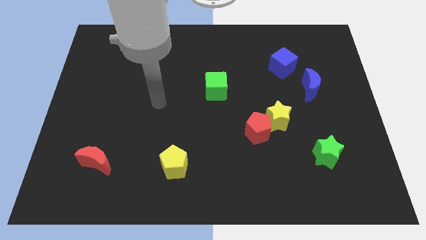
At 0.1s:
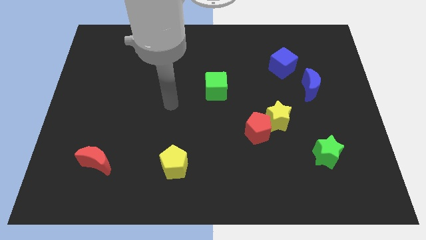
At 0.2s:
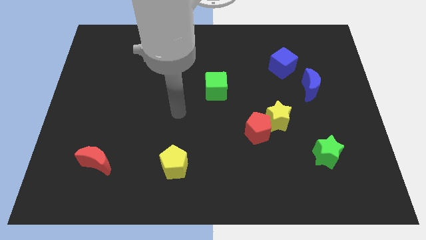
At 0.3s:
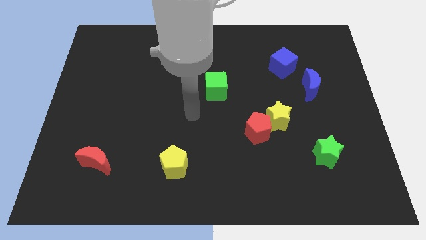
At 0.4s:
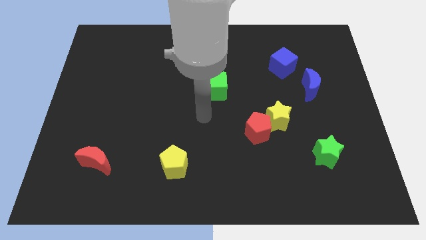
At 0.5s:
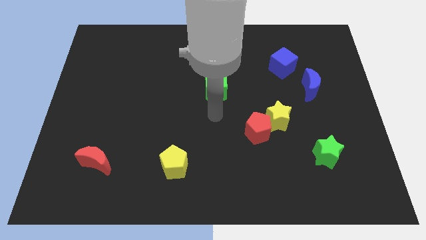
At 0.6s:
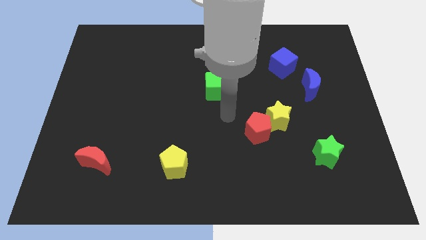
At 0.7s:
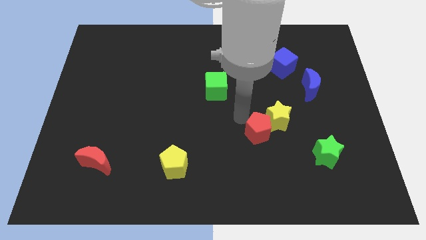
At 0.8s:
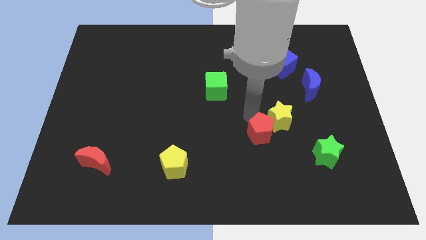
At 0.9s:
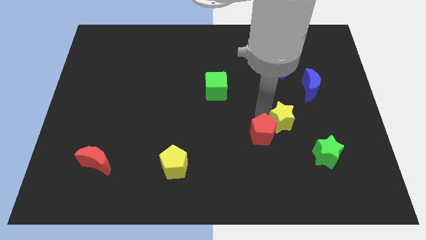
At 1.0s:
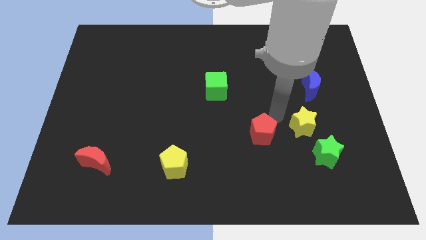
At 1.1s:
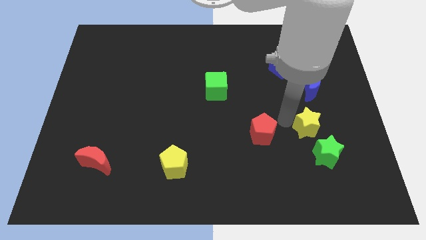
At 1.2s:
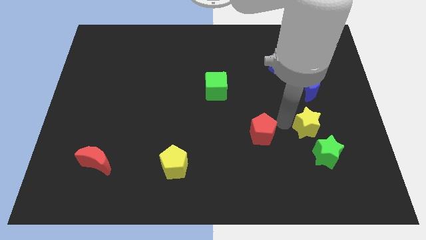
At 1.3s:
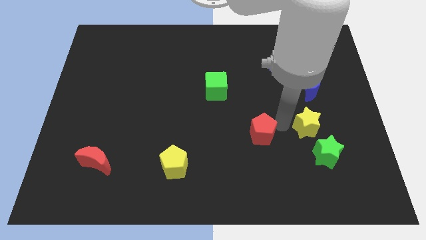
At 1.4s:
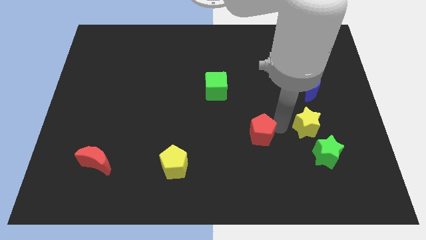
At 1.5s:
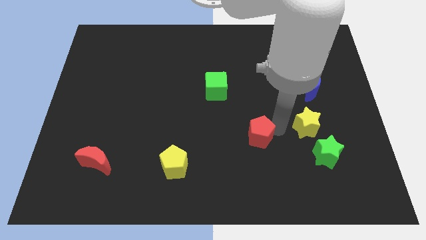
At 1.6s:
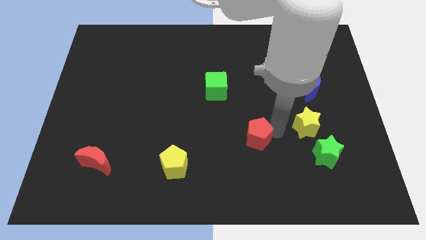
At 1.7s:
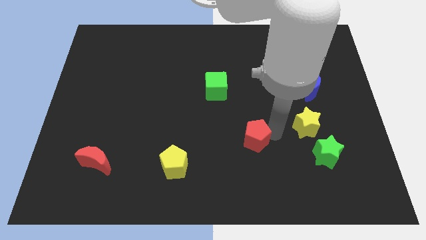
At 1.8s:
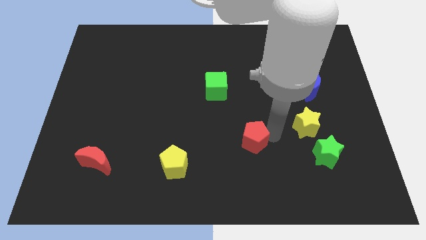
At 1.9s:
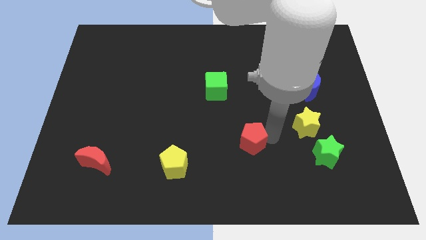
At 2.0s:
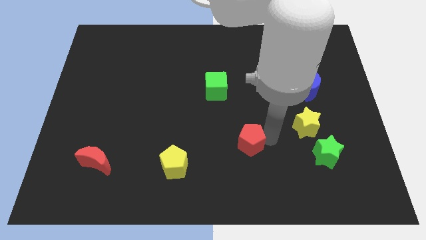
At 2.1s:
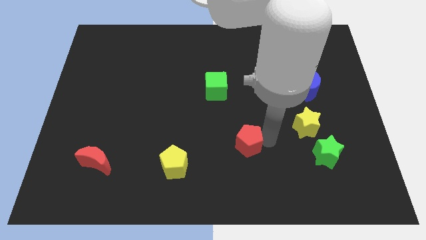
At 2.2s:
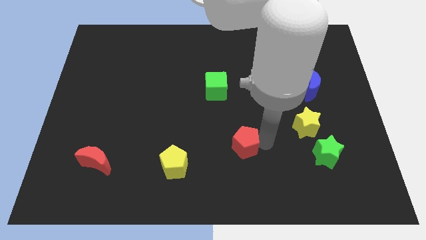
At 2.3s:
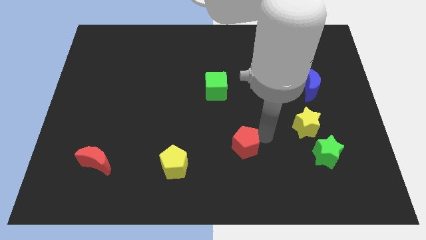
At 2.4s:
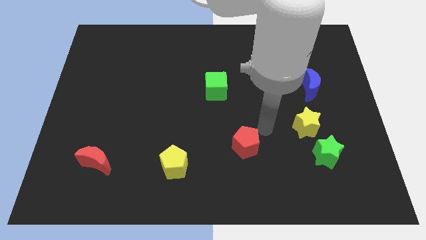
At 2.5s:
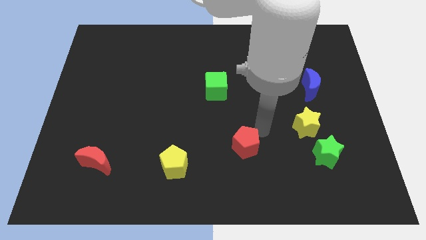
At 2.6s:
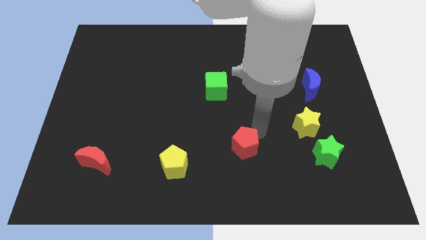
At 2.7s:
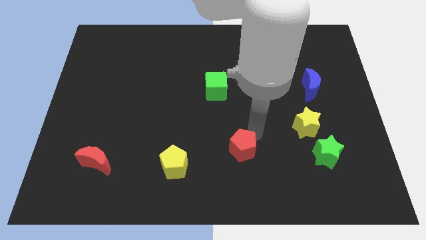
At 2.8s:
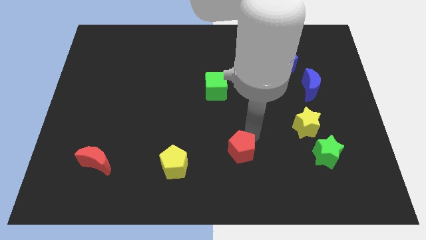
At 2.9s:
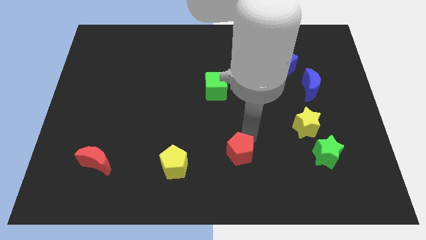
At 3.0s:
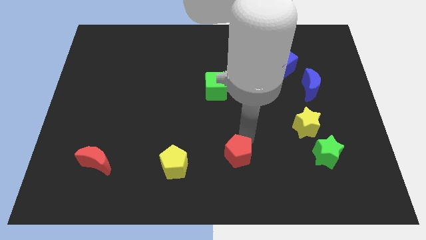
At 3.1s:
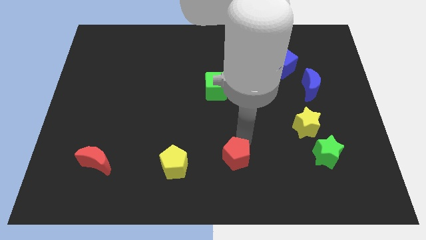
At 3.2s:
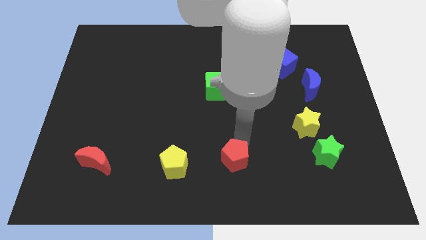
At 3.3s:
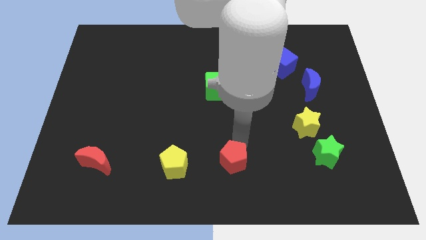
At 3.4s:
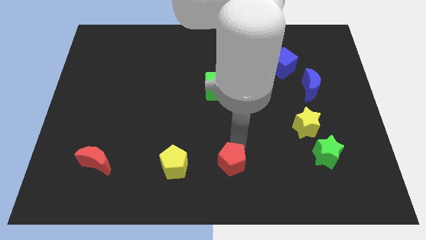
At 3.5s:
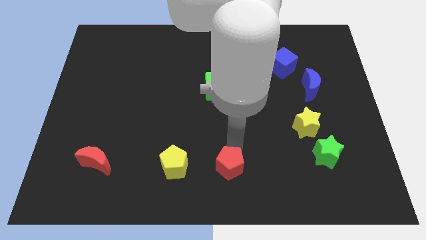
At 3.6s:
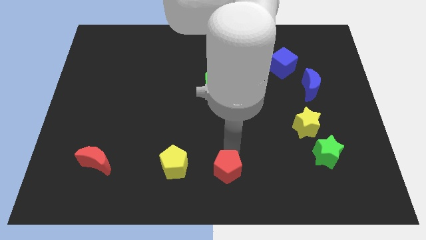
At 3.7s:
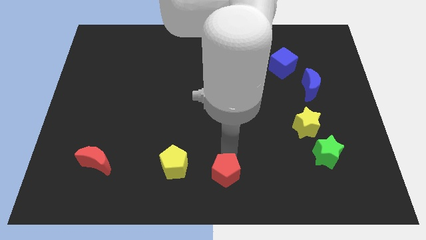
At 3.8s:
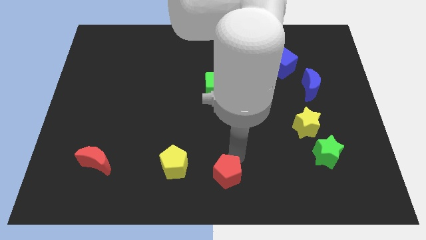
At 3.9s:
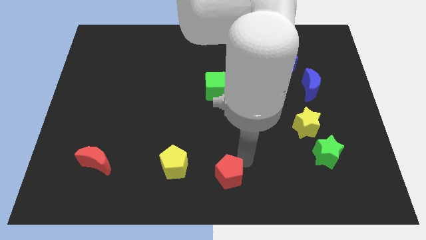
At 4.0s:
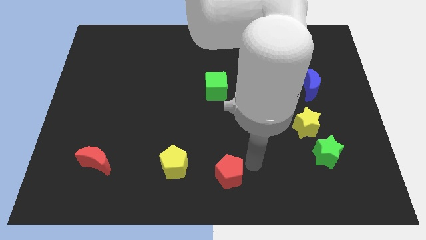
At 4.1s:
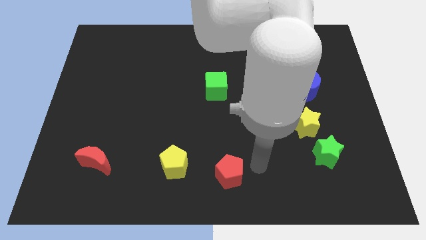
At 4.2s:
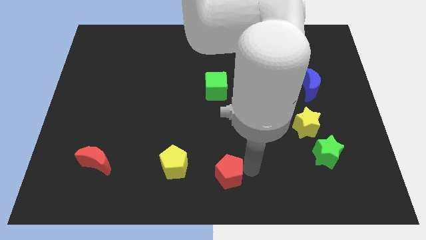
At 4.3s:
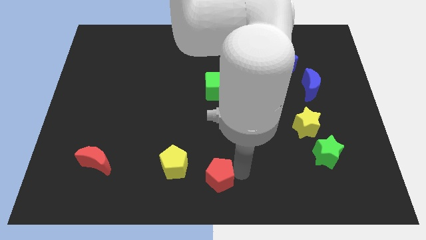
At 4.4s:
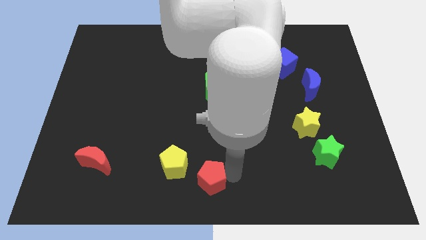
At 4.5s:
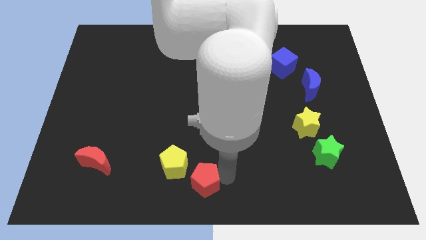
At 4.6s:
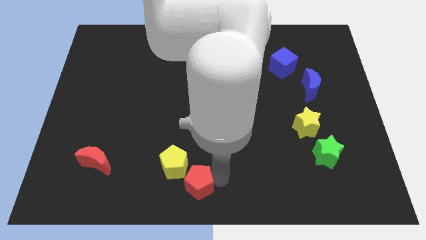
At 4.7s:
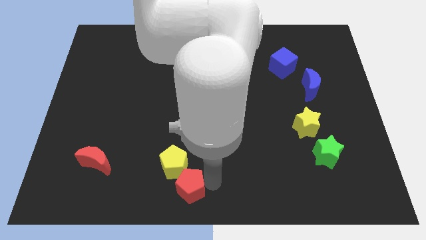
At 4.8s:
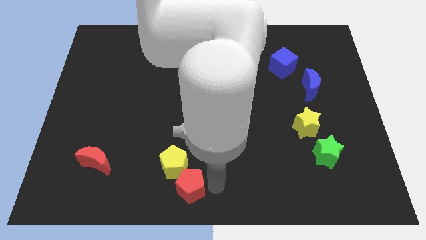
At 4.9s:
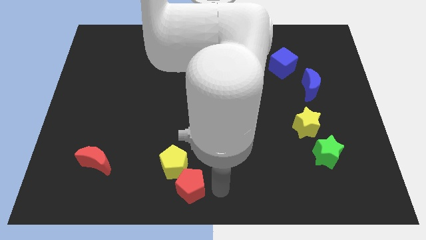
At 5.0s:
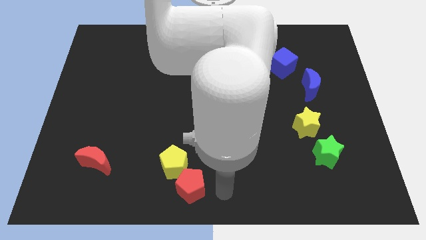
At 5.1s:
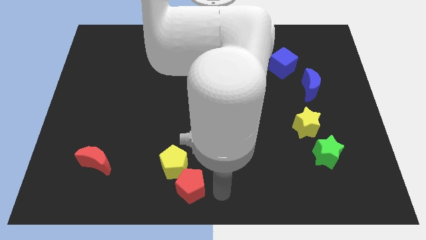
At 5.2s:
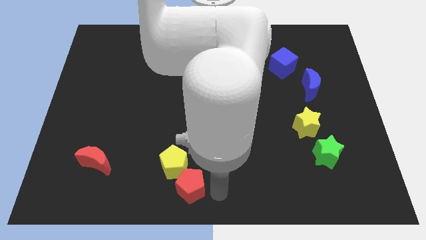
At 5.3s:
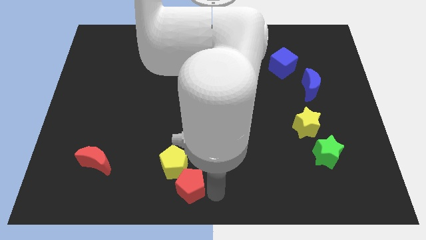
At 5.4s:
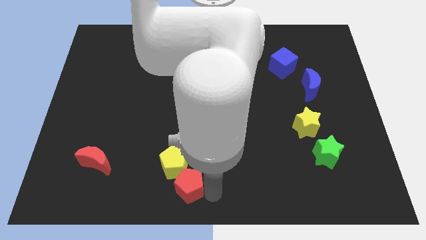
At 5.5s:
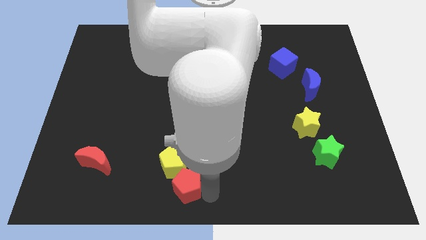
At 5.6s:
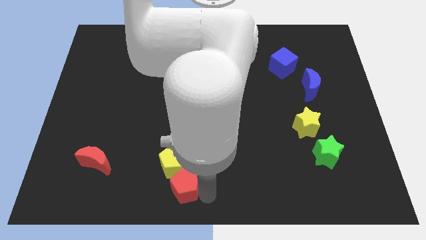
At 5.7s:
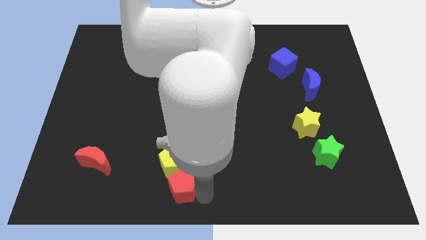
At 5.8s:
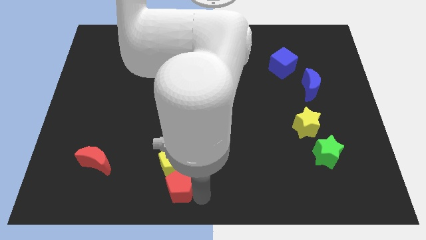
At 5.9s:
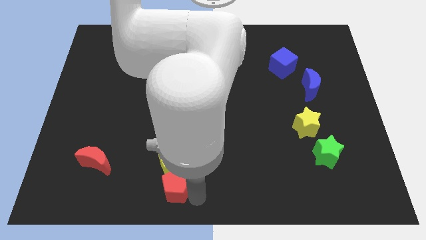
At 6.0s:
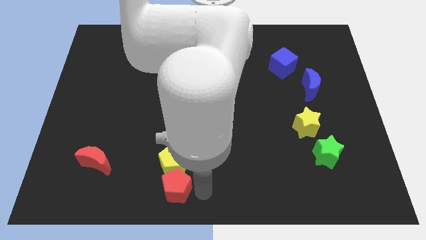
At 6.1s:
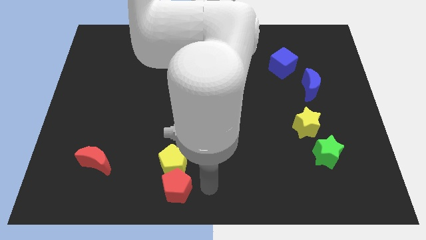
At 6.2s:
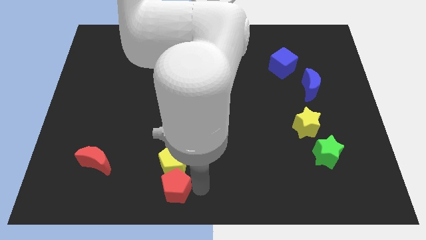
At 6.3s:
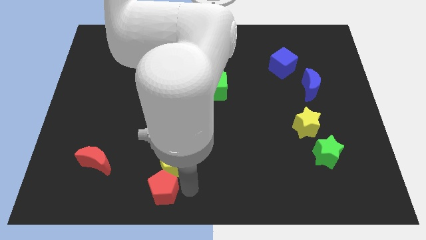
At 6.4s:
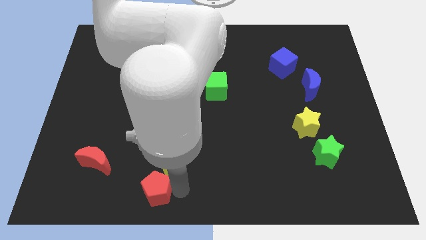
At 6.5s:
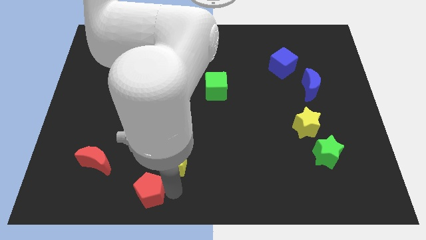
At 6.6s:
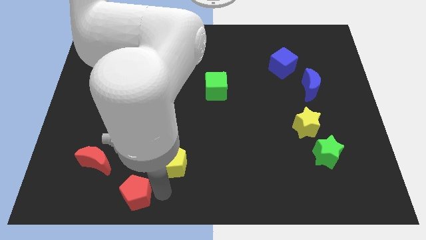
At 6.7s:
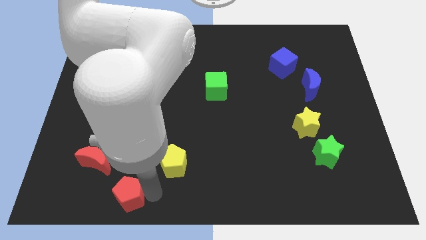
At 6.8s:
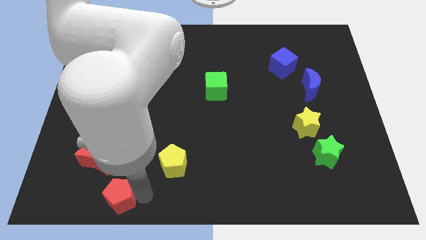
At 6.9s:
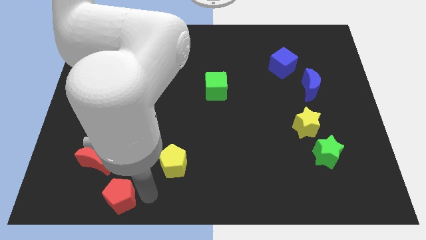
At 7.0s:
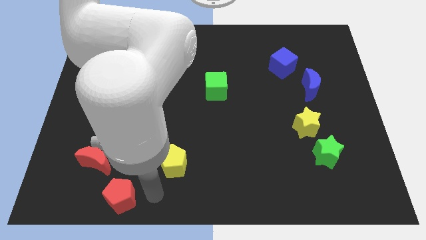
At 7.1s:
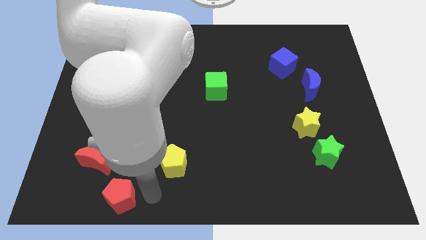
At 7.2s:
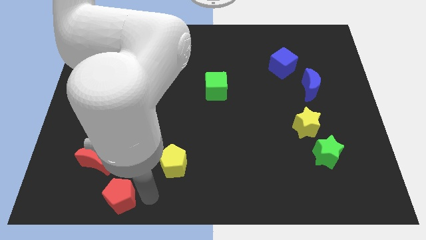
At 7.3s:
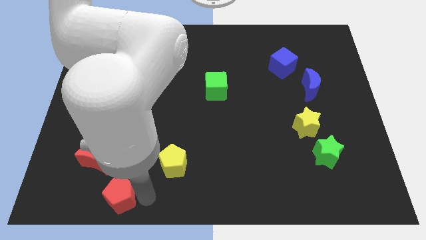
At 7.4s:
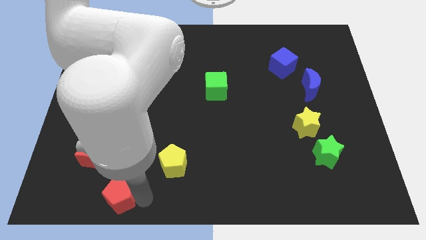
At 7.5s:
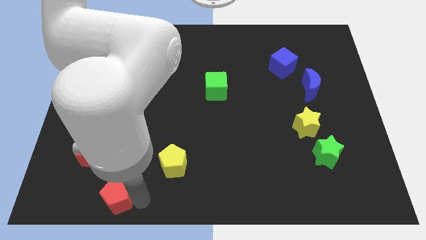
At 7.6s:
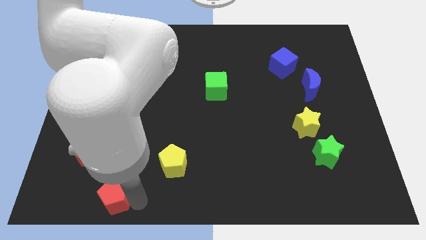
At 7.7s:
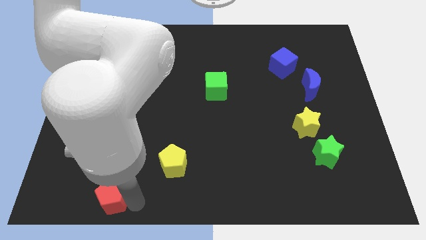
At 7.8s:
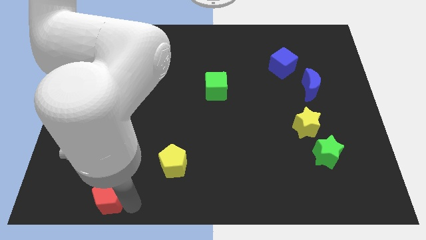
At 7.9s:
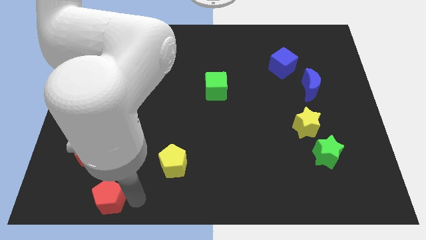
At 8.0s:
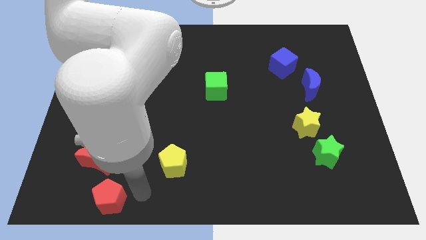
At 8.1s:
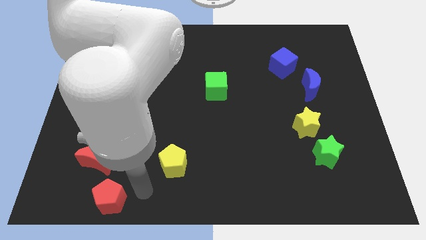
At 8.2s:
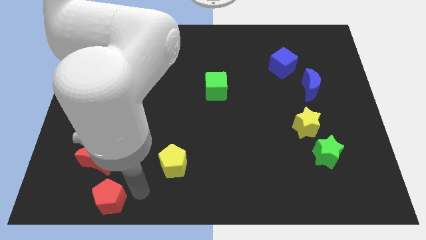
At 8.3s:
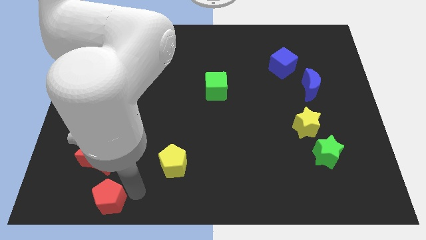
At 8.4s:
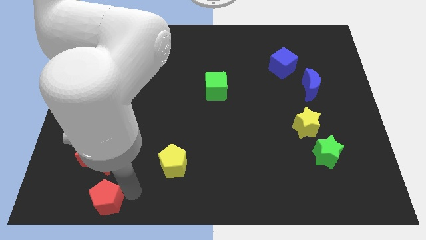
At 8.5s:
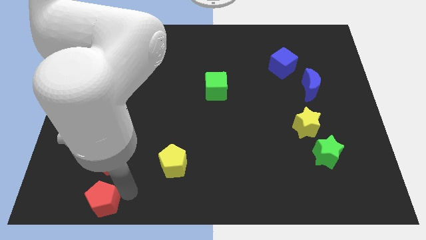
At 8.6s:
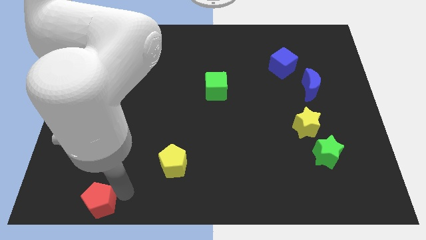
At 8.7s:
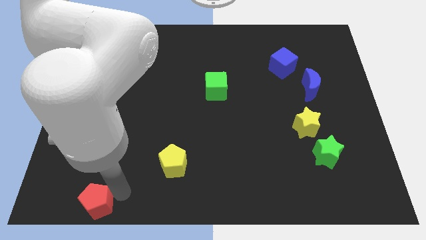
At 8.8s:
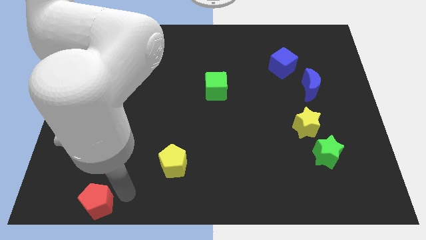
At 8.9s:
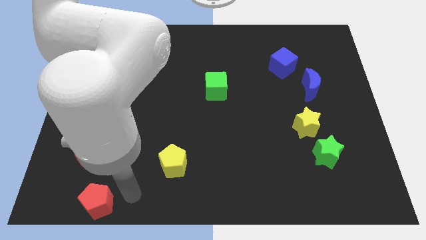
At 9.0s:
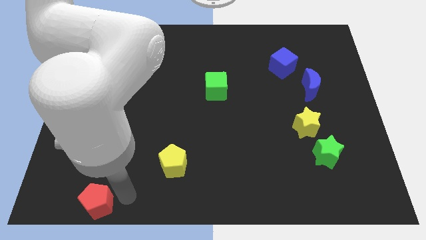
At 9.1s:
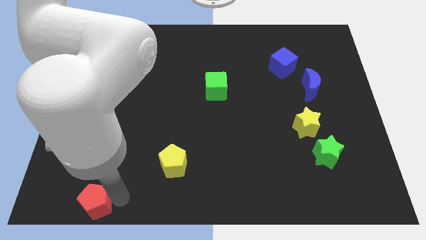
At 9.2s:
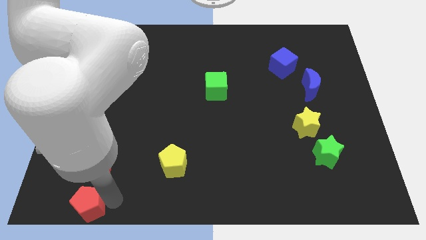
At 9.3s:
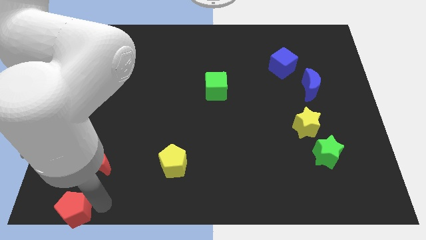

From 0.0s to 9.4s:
move the red pentagon to the bottom left corner
